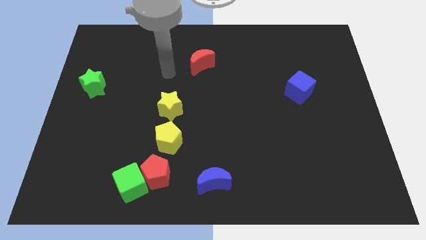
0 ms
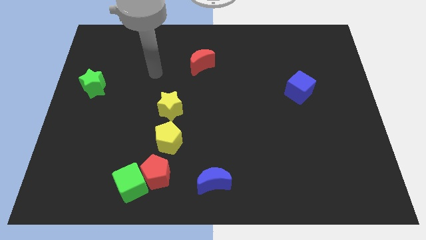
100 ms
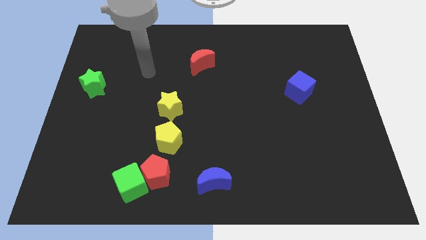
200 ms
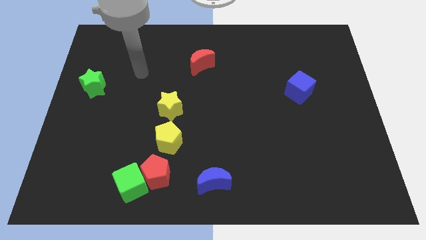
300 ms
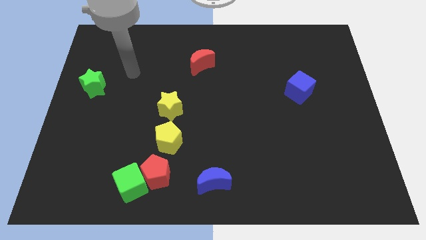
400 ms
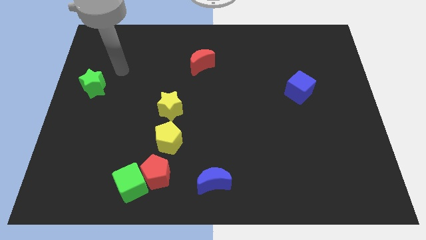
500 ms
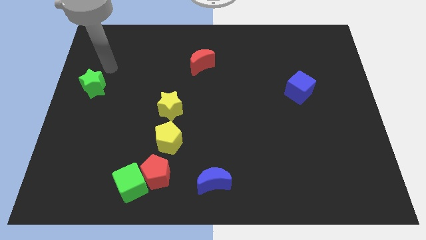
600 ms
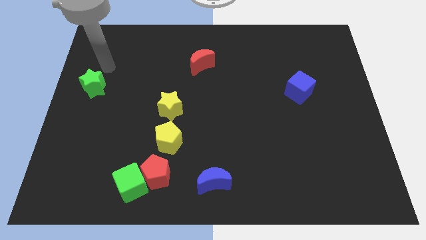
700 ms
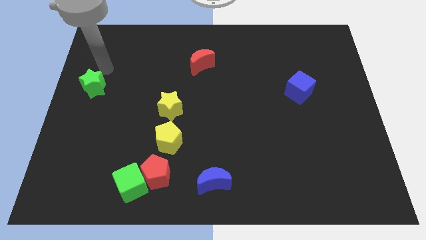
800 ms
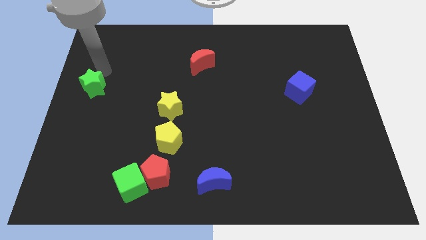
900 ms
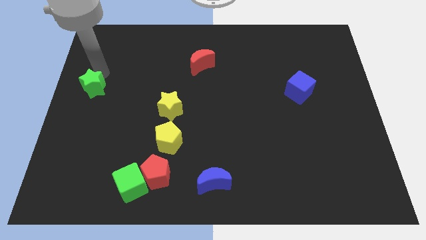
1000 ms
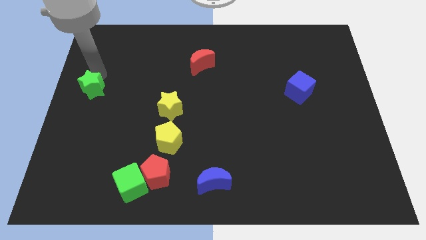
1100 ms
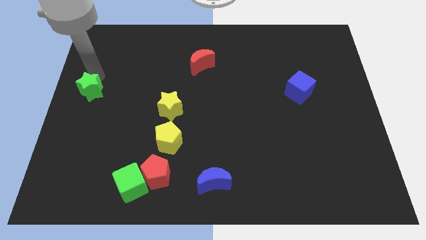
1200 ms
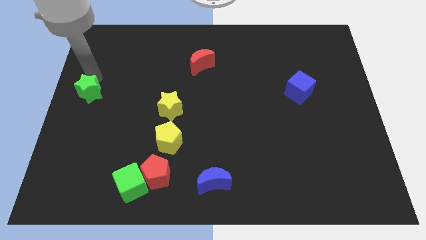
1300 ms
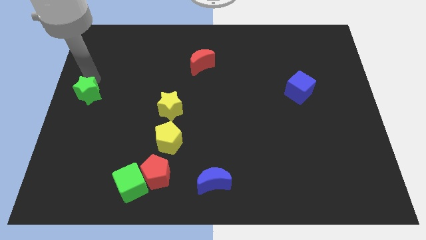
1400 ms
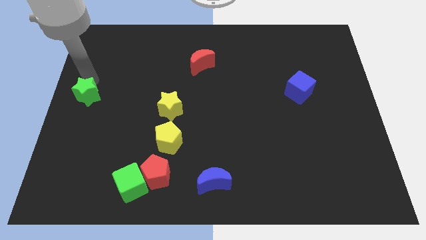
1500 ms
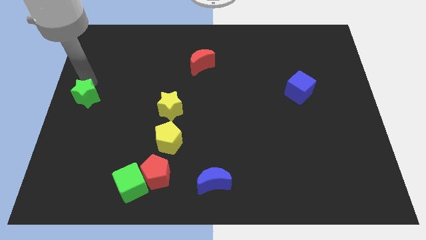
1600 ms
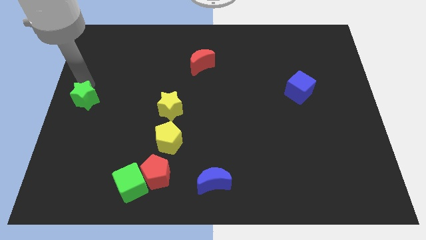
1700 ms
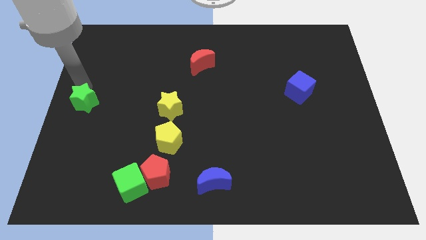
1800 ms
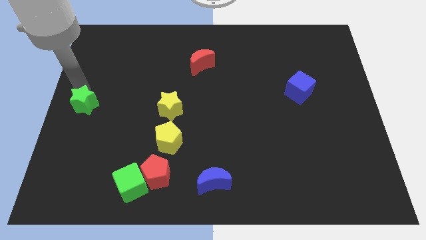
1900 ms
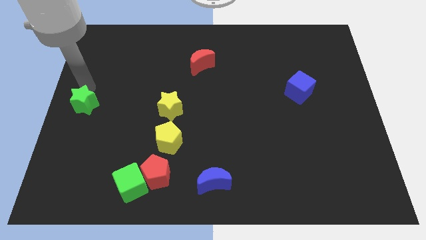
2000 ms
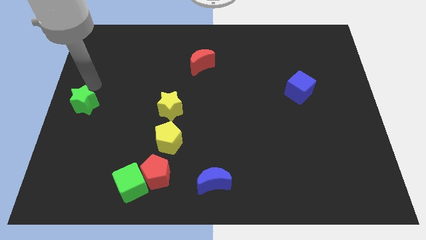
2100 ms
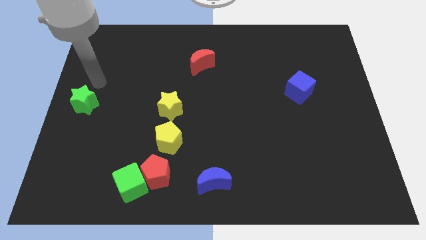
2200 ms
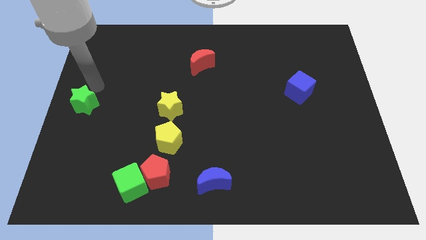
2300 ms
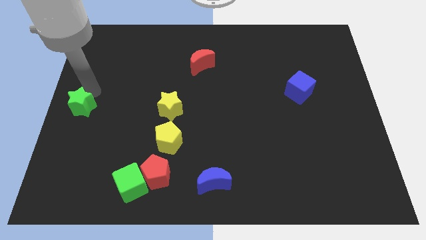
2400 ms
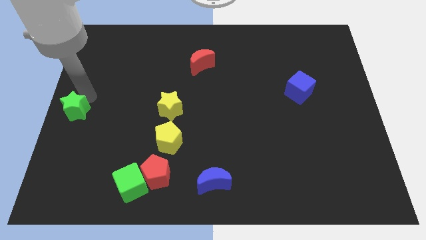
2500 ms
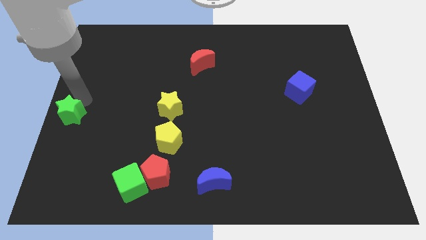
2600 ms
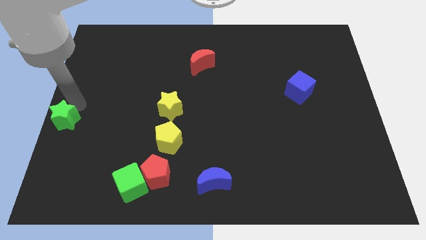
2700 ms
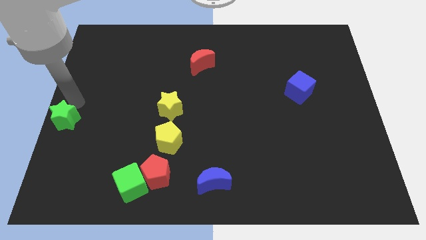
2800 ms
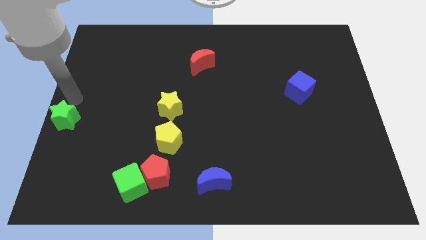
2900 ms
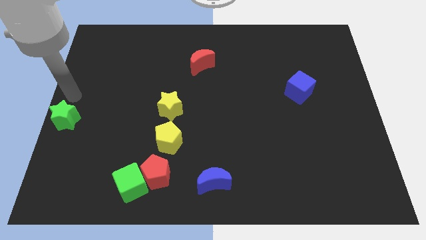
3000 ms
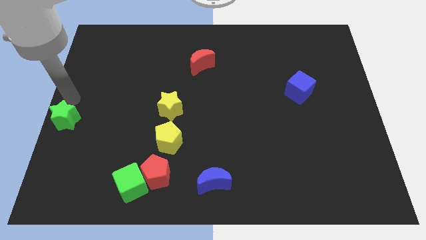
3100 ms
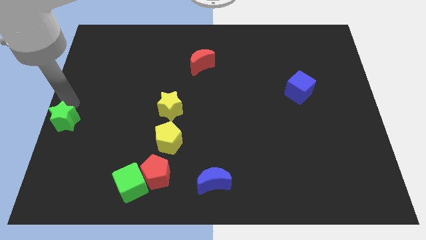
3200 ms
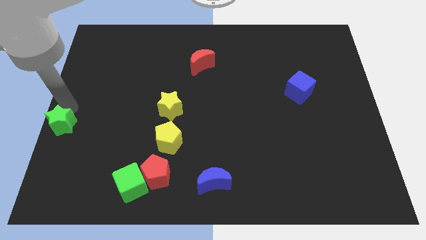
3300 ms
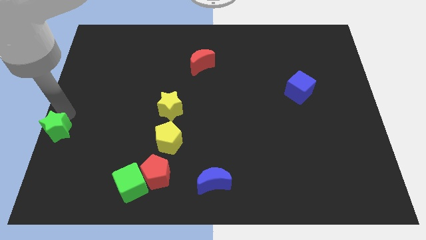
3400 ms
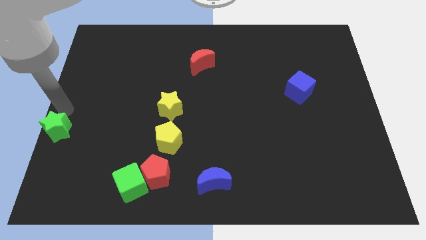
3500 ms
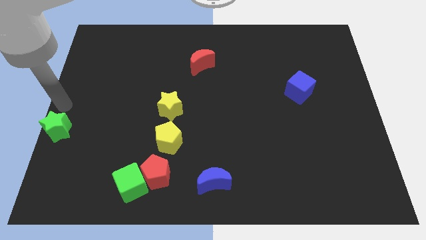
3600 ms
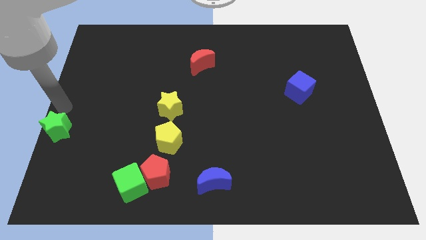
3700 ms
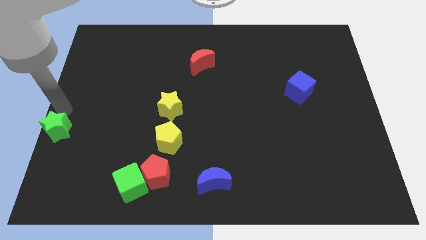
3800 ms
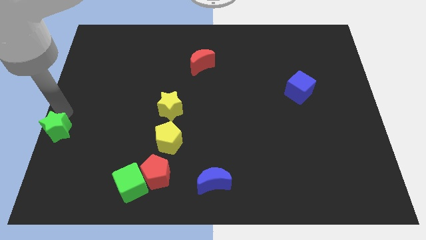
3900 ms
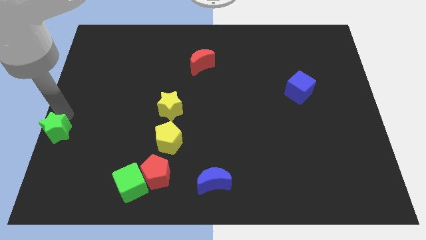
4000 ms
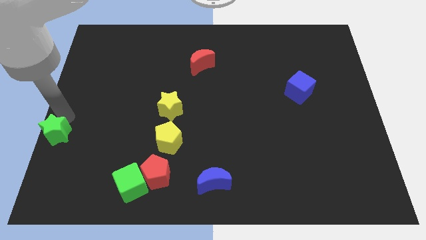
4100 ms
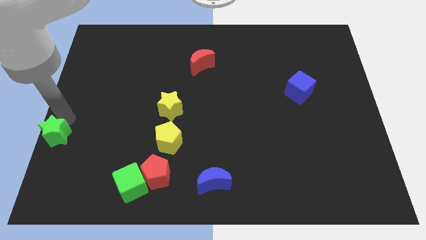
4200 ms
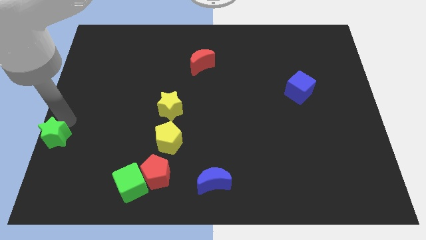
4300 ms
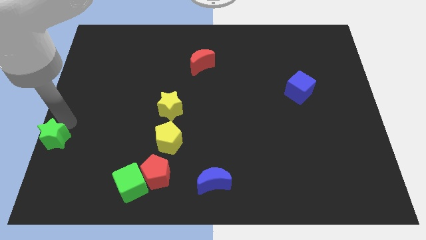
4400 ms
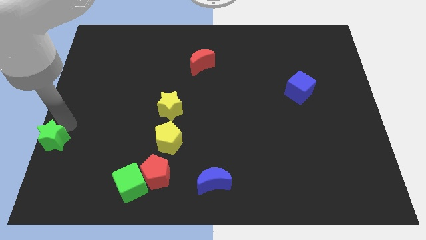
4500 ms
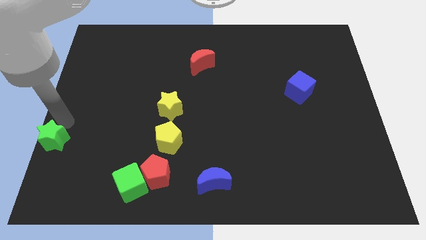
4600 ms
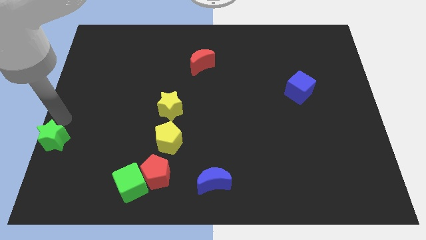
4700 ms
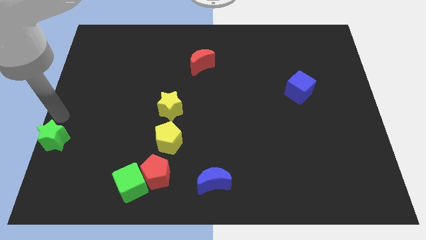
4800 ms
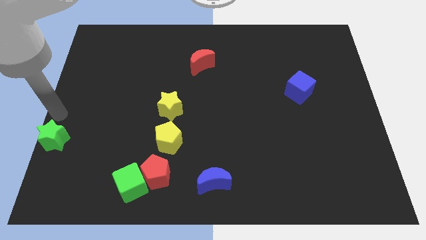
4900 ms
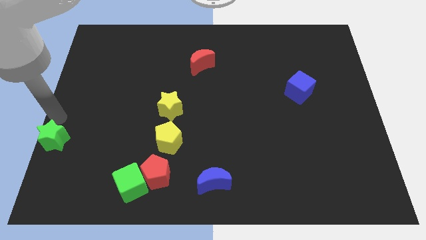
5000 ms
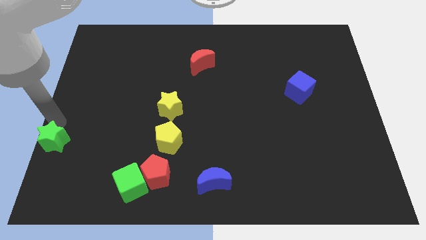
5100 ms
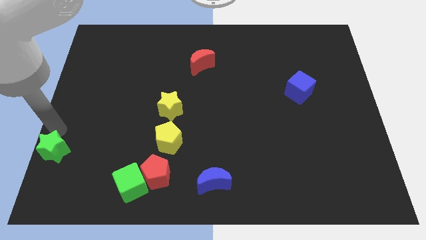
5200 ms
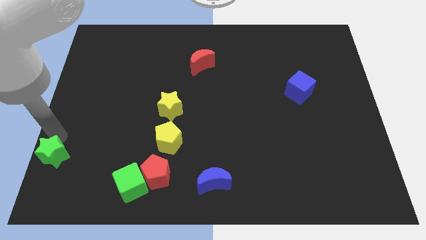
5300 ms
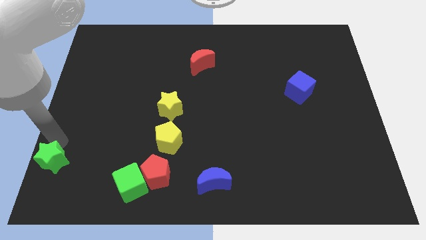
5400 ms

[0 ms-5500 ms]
move the green star to the bottom left

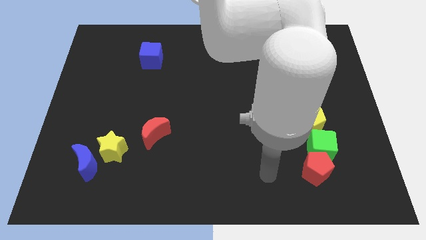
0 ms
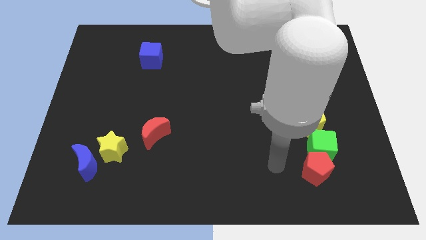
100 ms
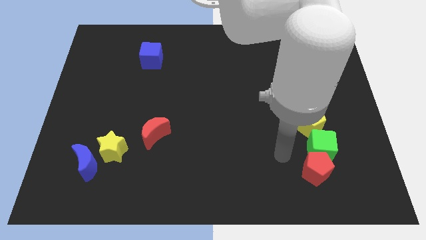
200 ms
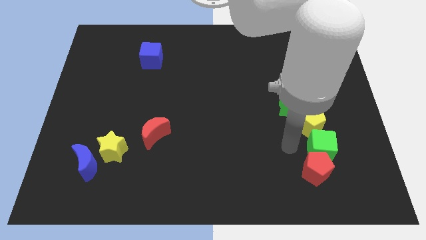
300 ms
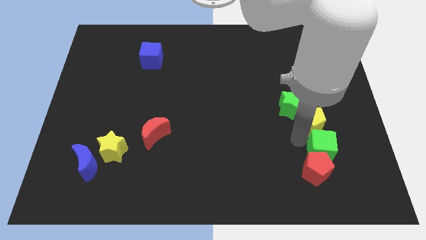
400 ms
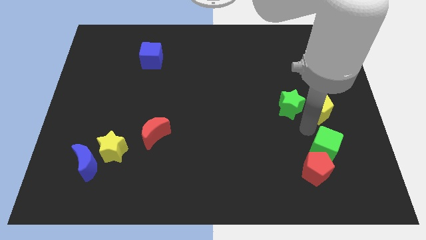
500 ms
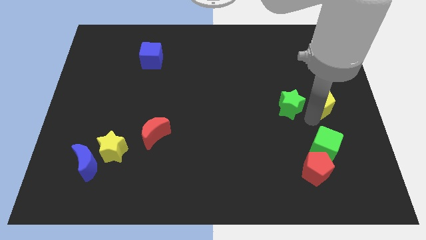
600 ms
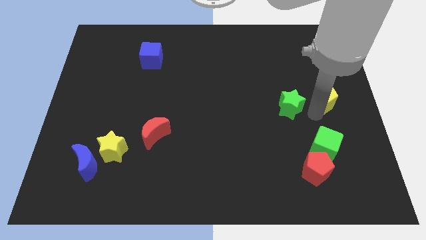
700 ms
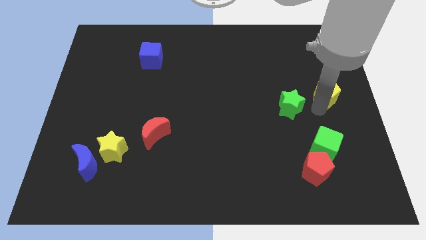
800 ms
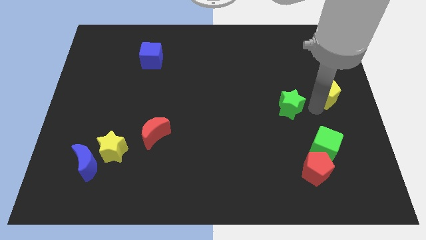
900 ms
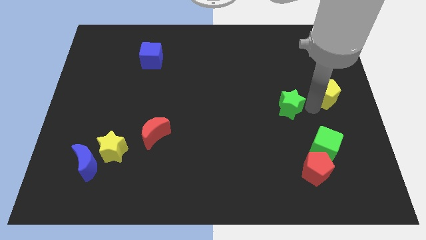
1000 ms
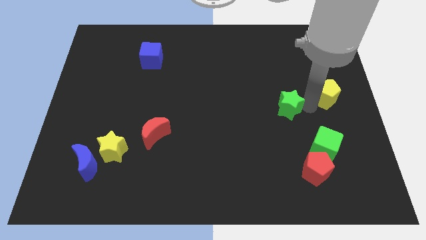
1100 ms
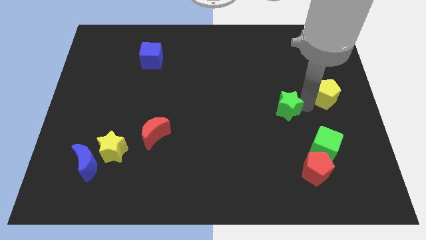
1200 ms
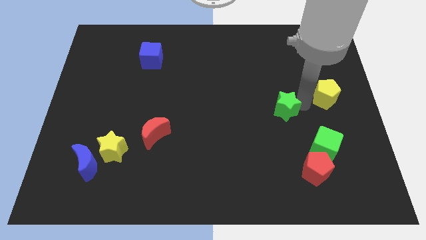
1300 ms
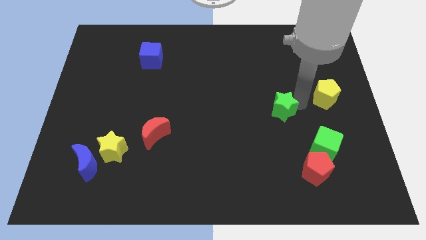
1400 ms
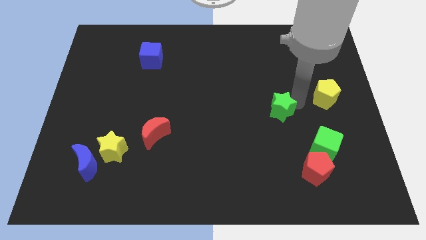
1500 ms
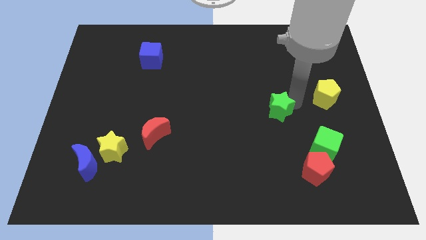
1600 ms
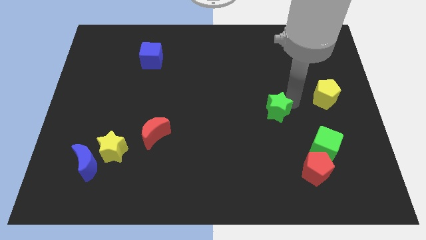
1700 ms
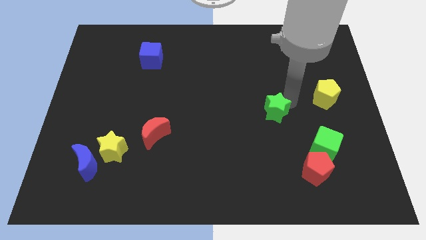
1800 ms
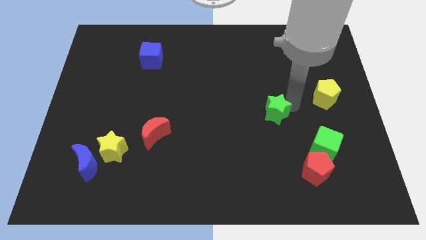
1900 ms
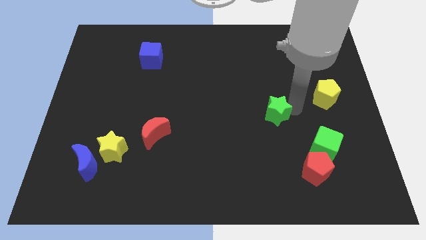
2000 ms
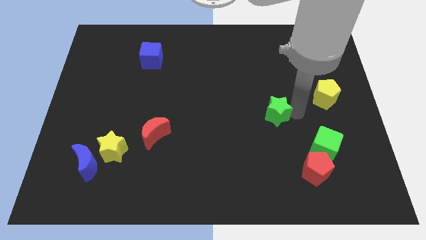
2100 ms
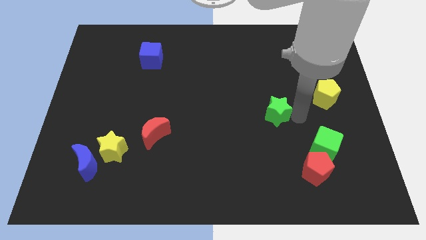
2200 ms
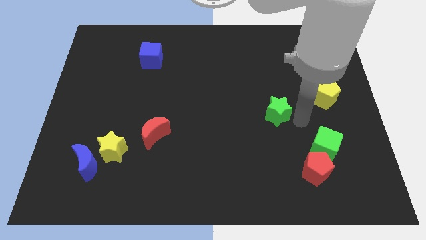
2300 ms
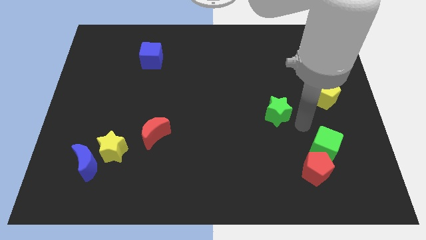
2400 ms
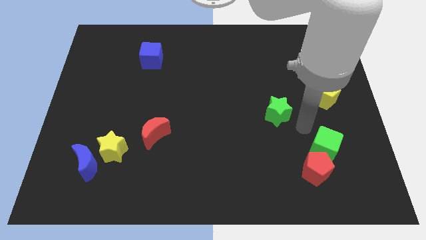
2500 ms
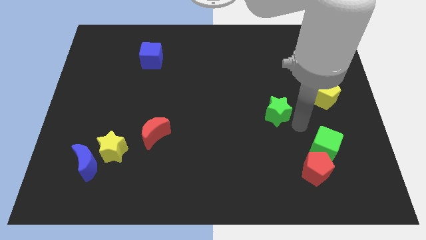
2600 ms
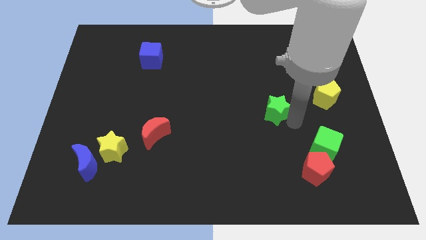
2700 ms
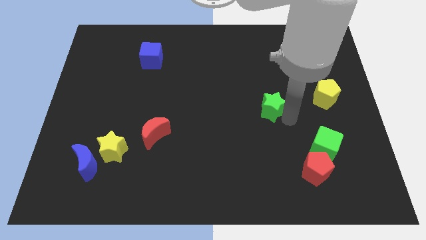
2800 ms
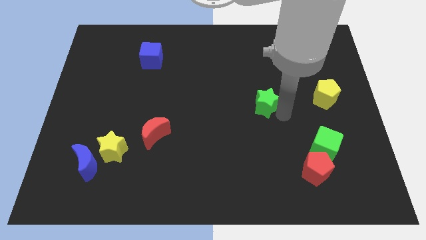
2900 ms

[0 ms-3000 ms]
move the green star to the middle
